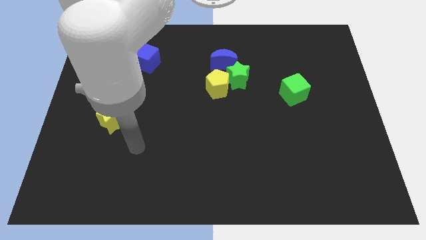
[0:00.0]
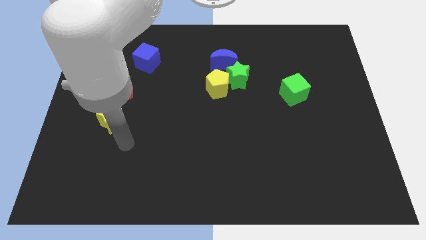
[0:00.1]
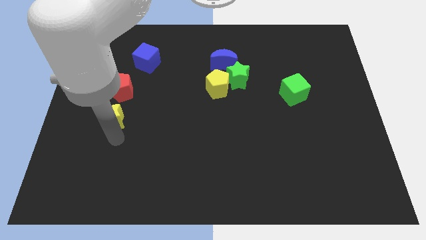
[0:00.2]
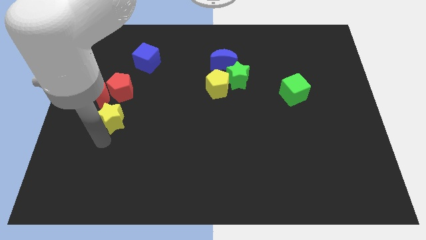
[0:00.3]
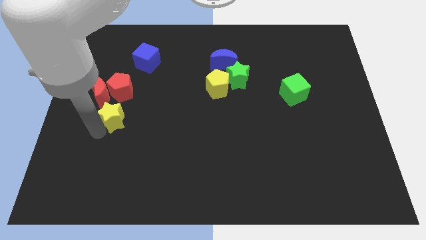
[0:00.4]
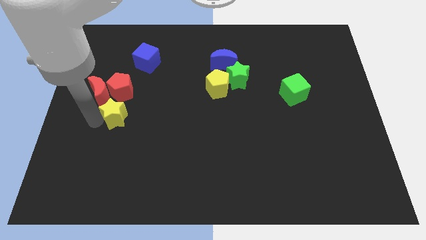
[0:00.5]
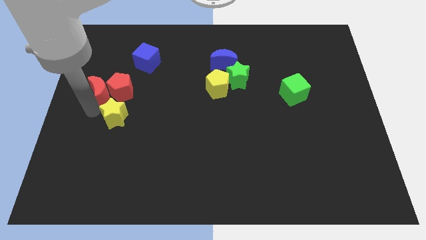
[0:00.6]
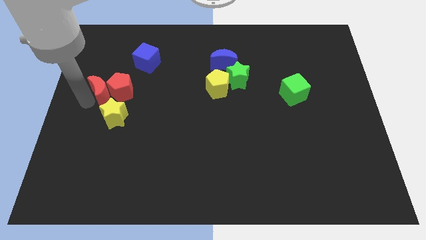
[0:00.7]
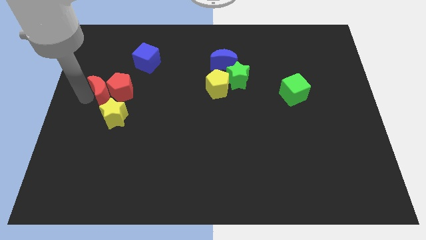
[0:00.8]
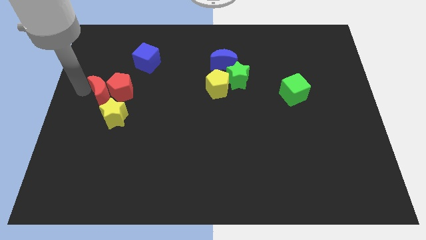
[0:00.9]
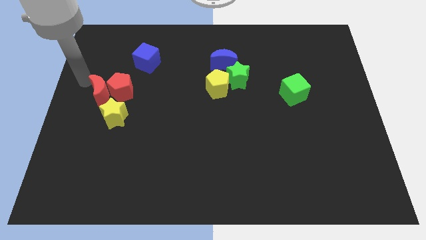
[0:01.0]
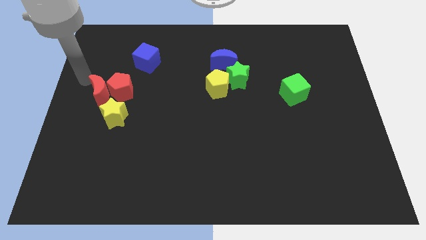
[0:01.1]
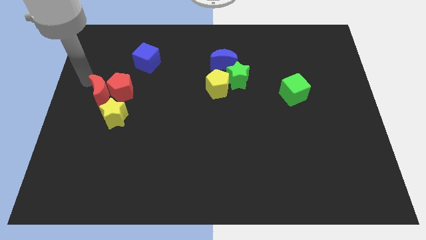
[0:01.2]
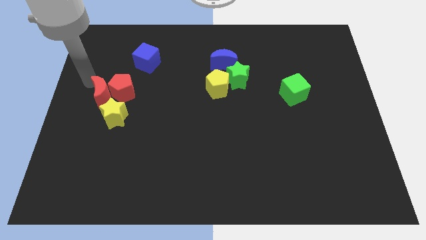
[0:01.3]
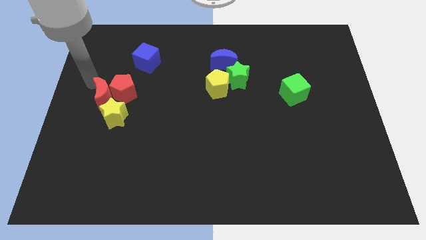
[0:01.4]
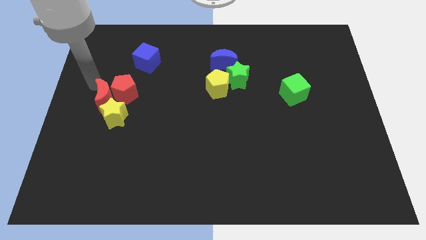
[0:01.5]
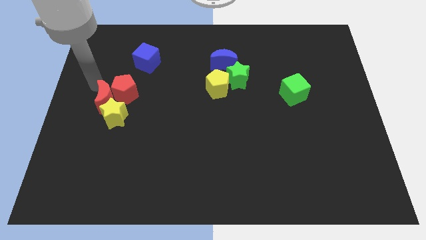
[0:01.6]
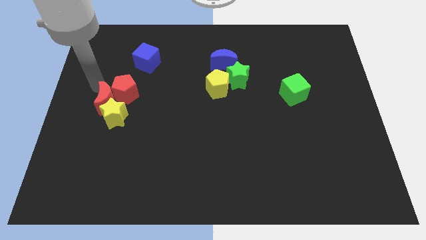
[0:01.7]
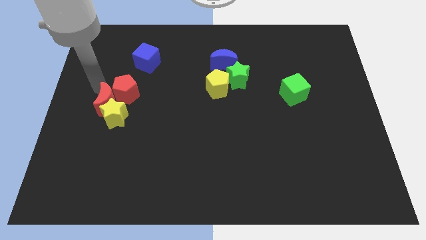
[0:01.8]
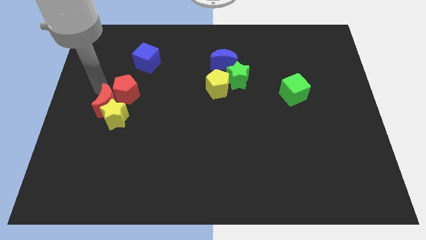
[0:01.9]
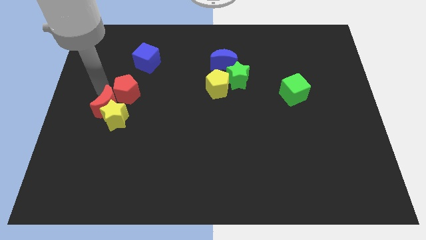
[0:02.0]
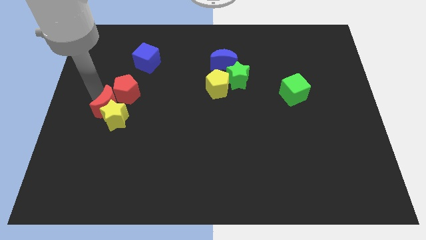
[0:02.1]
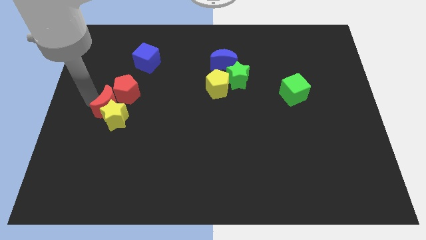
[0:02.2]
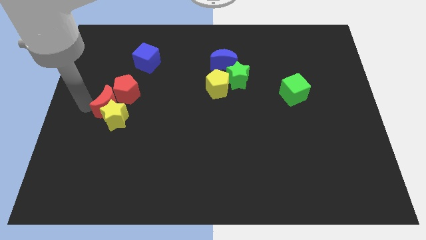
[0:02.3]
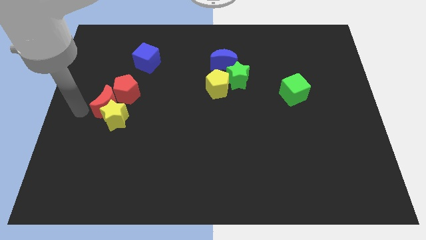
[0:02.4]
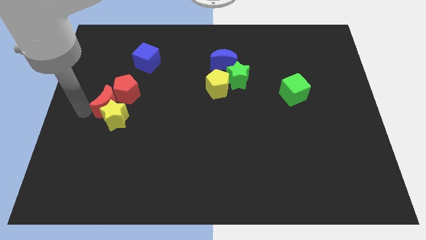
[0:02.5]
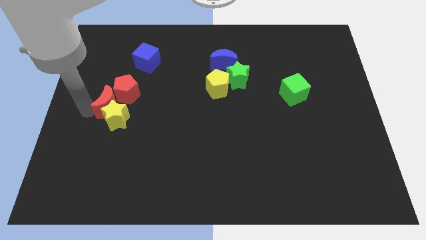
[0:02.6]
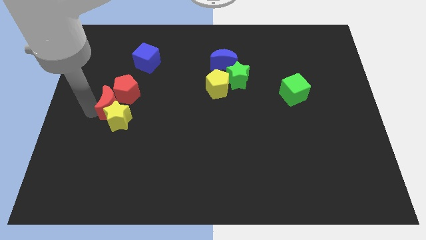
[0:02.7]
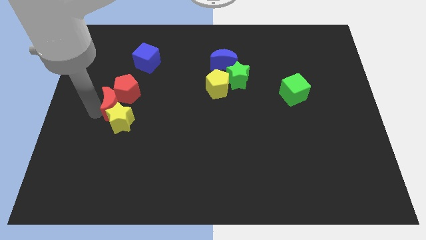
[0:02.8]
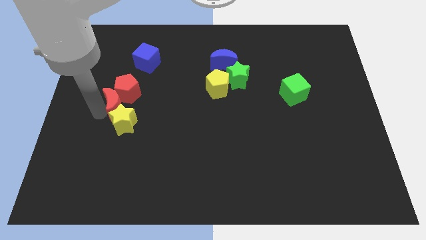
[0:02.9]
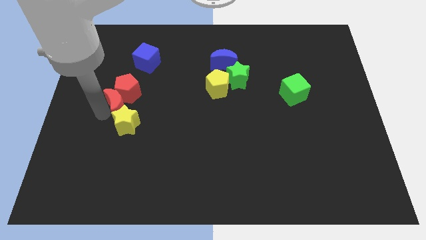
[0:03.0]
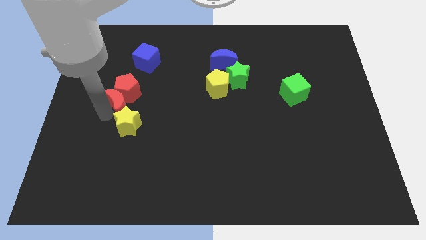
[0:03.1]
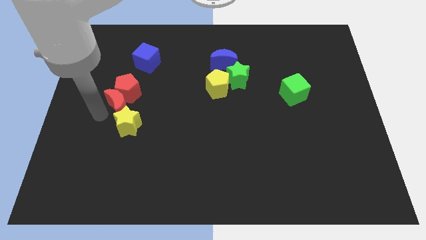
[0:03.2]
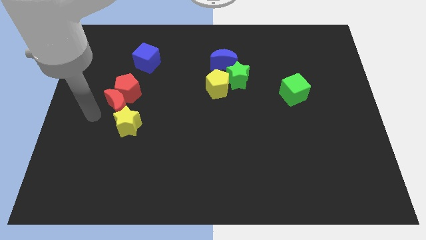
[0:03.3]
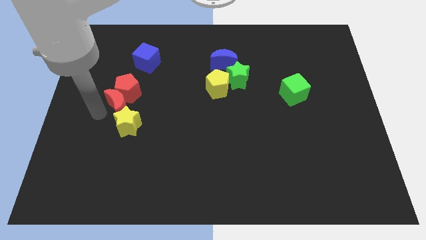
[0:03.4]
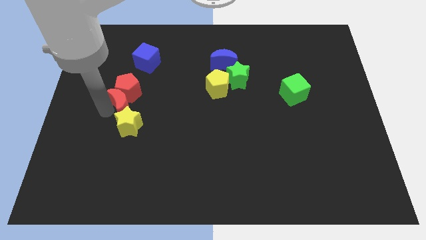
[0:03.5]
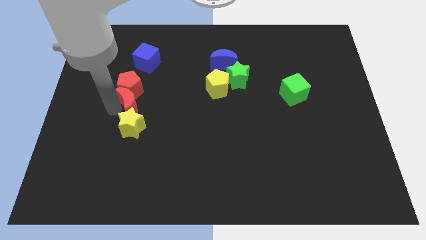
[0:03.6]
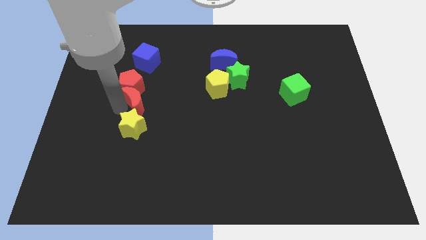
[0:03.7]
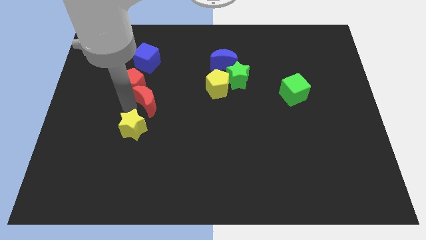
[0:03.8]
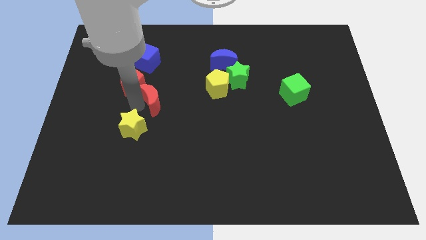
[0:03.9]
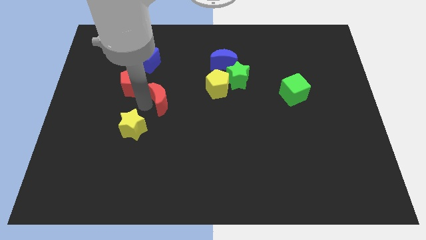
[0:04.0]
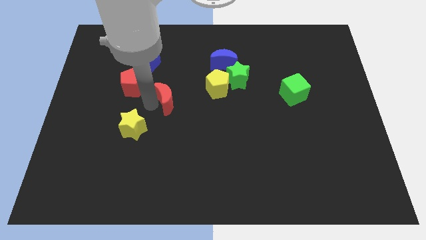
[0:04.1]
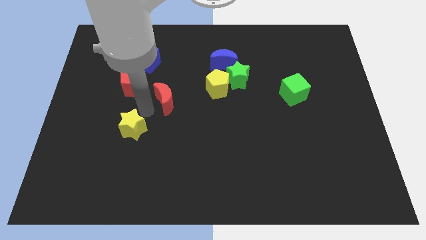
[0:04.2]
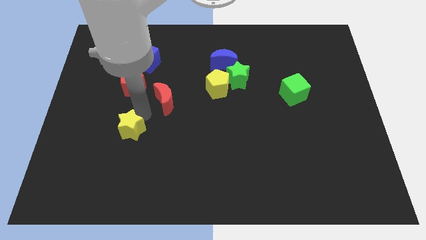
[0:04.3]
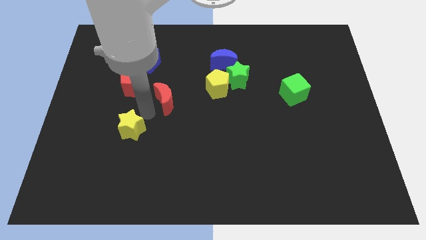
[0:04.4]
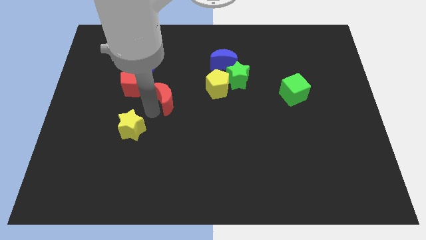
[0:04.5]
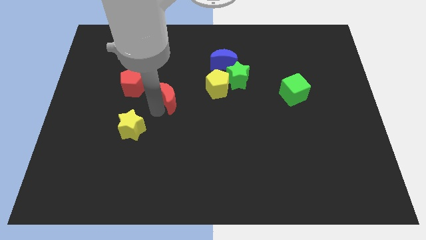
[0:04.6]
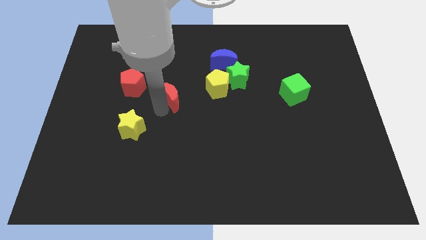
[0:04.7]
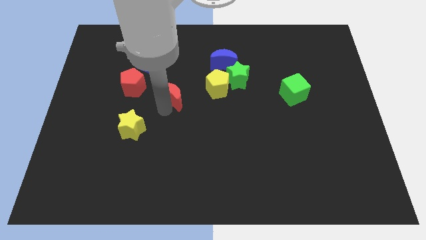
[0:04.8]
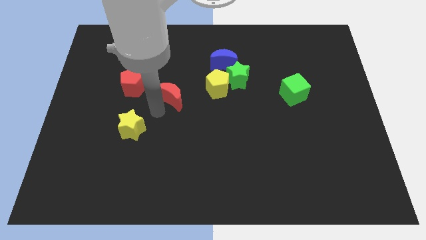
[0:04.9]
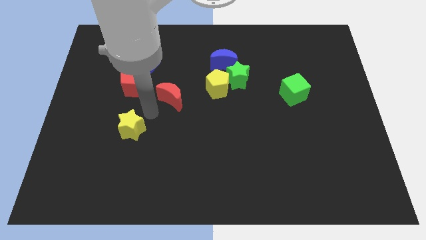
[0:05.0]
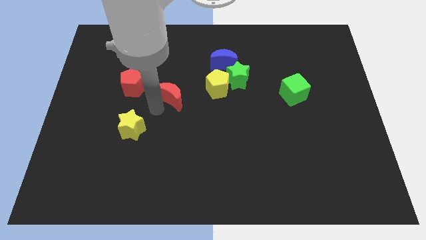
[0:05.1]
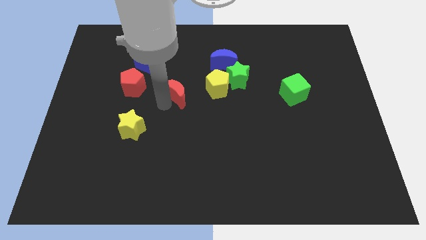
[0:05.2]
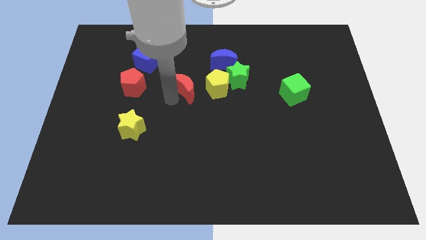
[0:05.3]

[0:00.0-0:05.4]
slide the red moon to the bottom left side of the blue moon

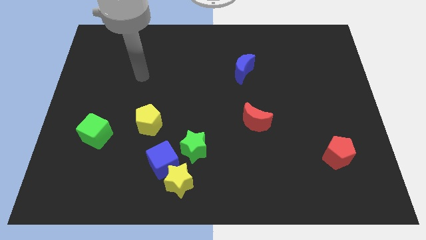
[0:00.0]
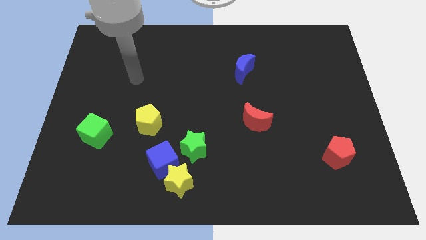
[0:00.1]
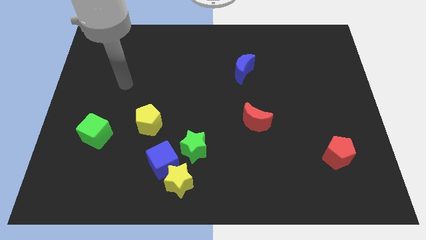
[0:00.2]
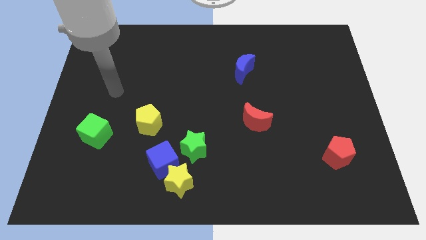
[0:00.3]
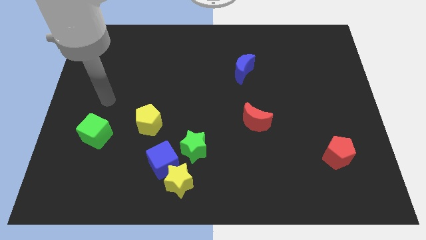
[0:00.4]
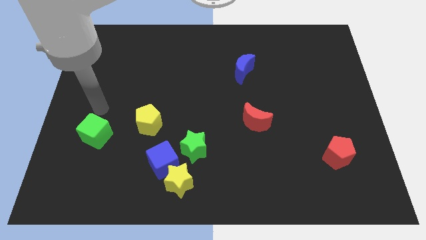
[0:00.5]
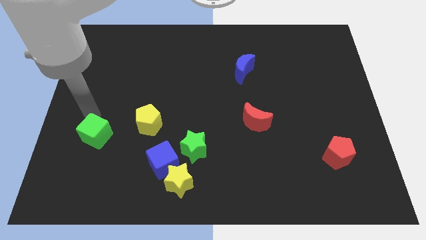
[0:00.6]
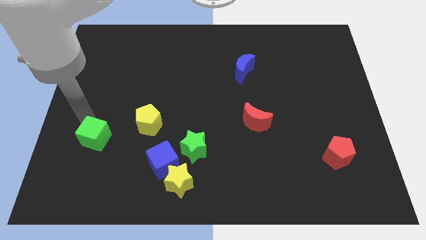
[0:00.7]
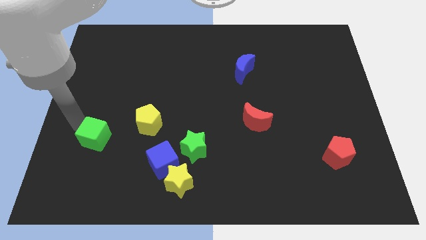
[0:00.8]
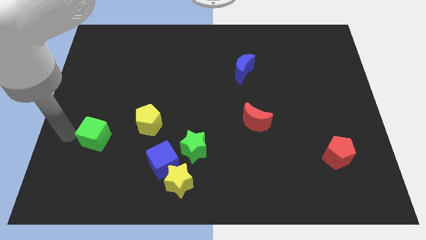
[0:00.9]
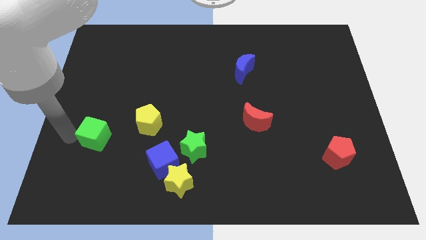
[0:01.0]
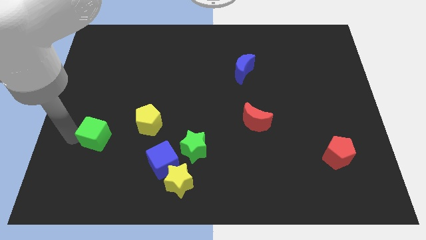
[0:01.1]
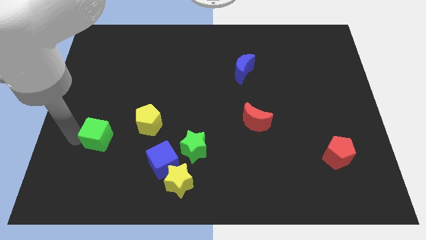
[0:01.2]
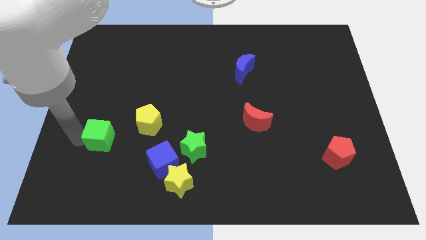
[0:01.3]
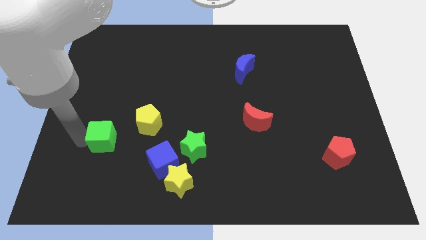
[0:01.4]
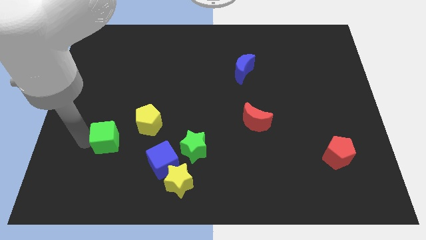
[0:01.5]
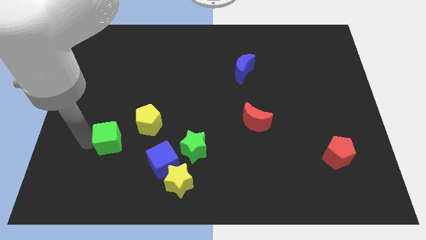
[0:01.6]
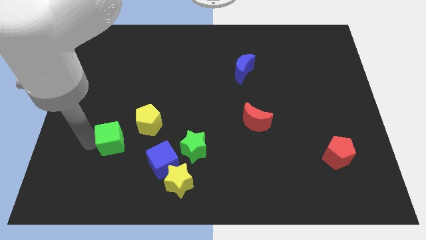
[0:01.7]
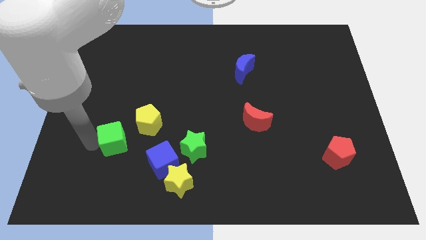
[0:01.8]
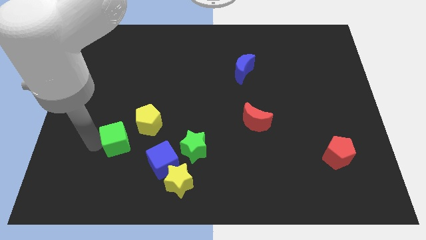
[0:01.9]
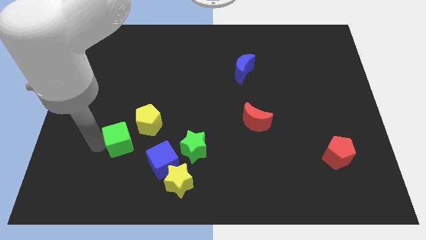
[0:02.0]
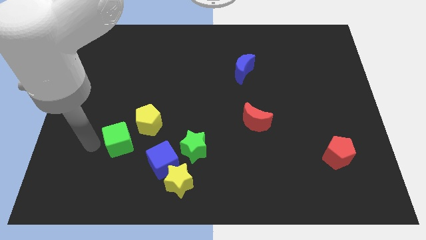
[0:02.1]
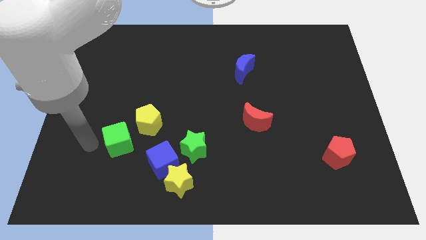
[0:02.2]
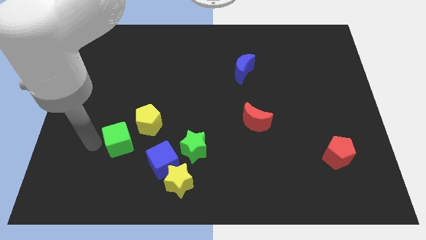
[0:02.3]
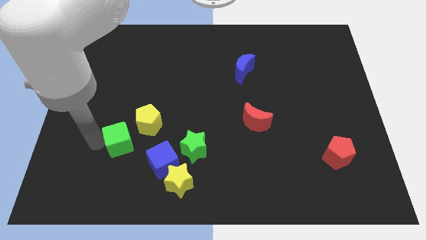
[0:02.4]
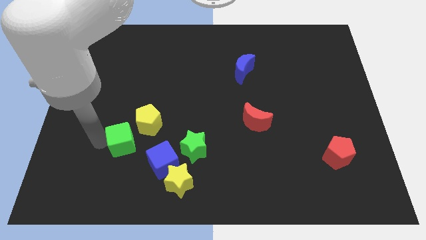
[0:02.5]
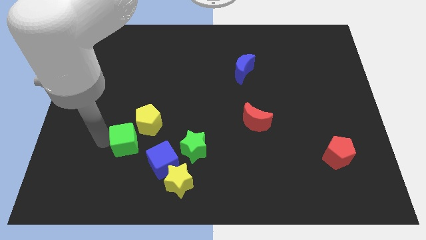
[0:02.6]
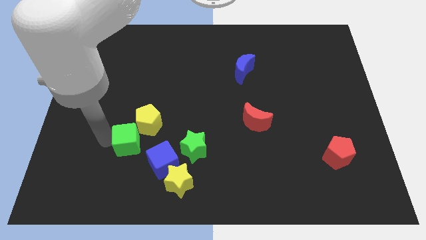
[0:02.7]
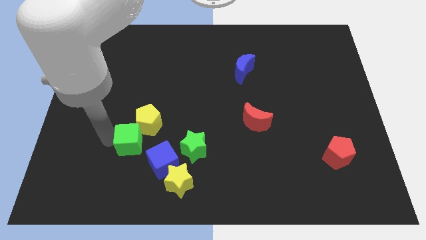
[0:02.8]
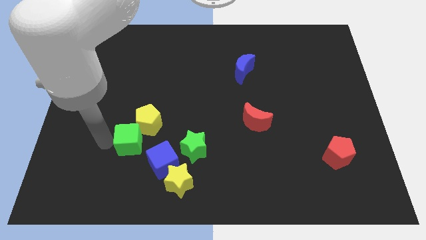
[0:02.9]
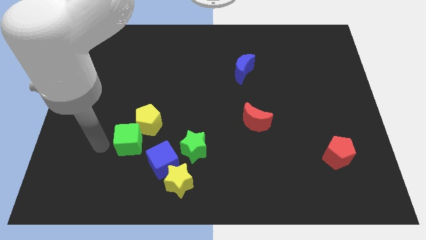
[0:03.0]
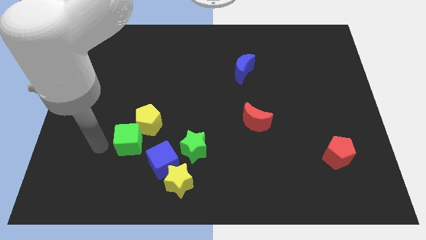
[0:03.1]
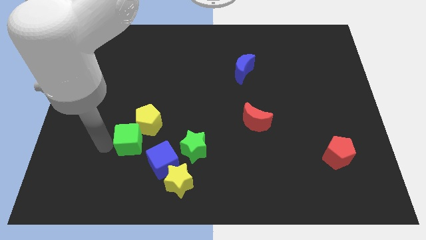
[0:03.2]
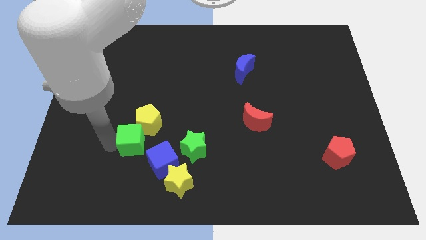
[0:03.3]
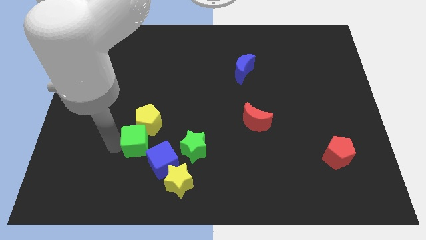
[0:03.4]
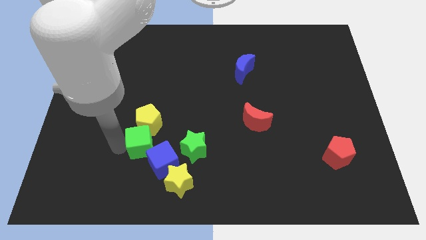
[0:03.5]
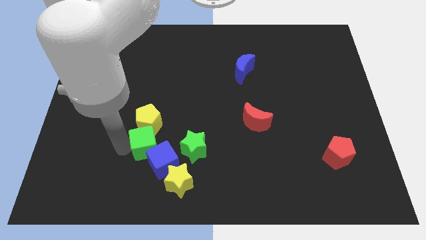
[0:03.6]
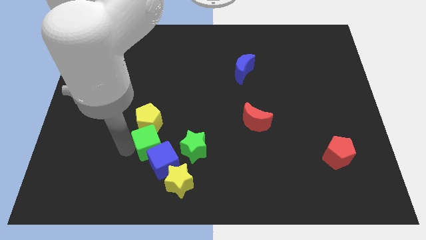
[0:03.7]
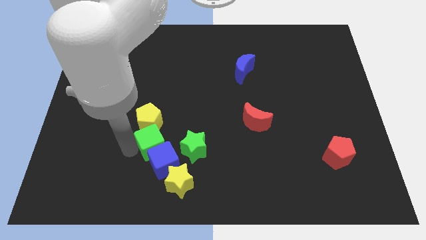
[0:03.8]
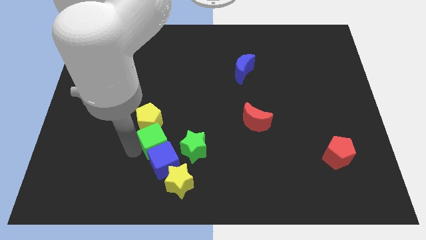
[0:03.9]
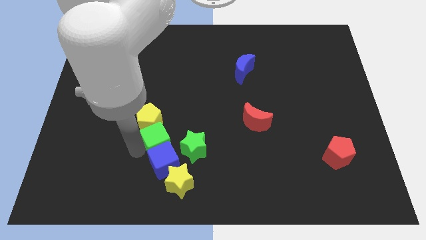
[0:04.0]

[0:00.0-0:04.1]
put the green cube to the top left side of the green star
